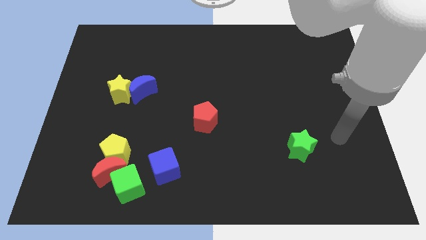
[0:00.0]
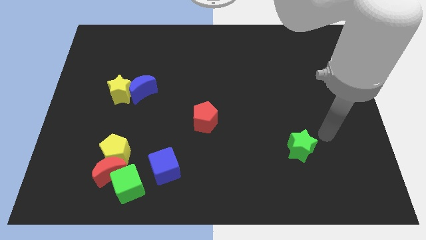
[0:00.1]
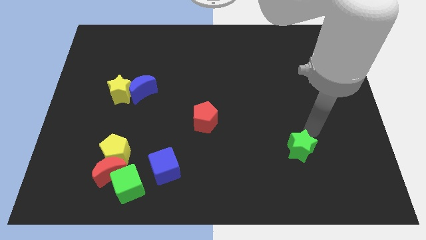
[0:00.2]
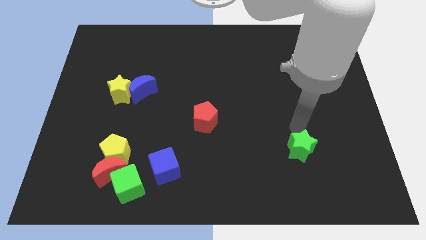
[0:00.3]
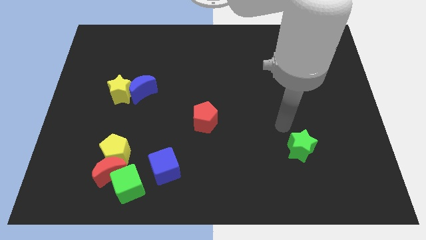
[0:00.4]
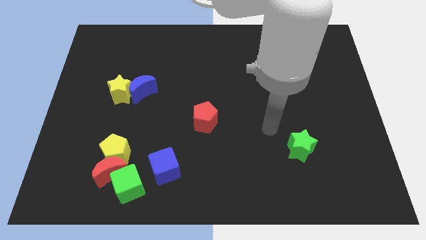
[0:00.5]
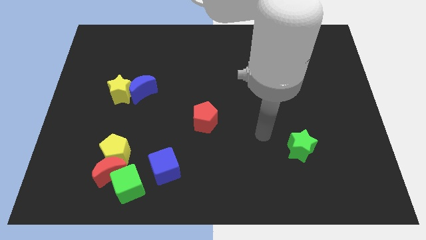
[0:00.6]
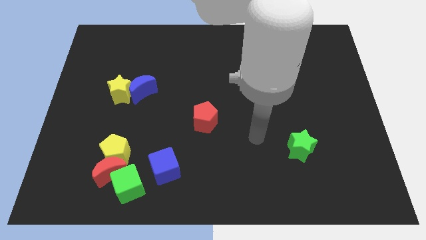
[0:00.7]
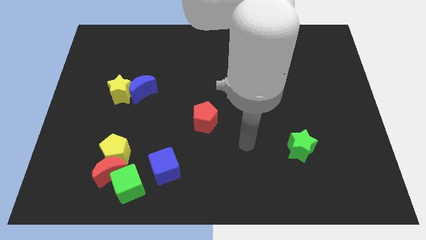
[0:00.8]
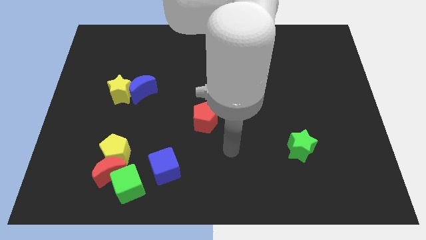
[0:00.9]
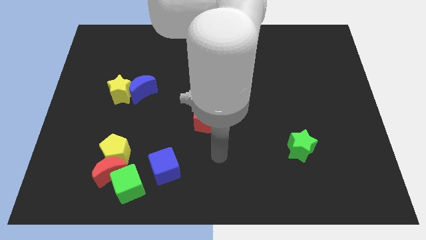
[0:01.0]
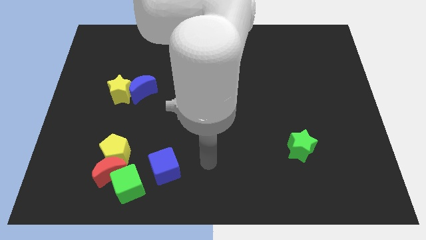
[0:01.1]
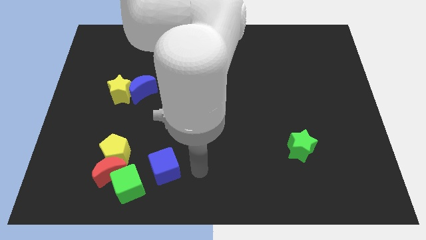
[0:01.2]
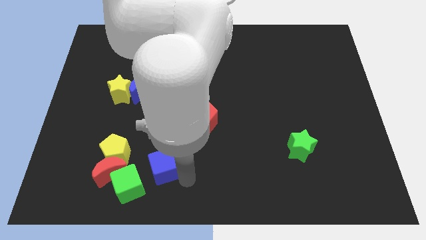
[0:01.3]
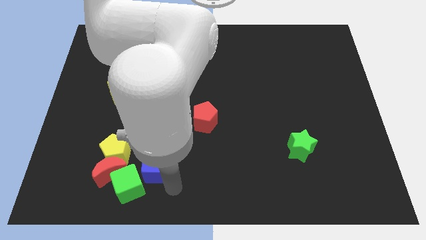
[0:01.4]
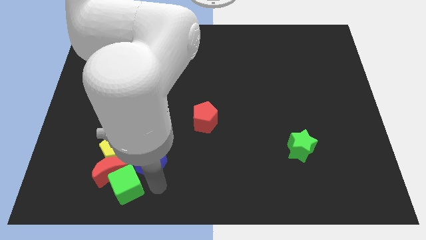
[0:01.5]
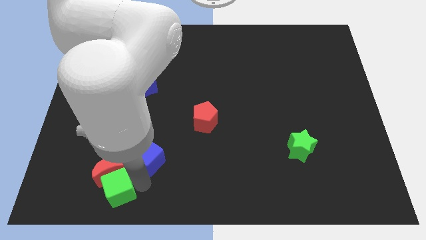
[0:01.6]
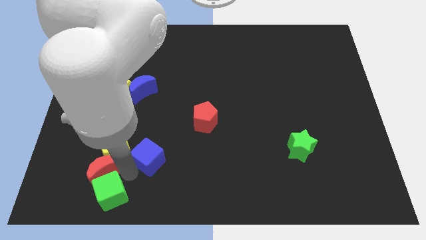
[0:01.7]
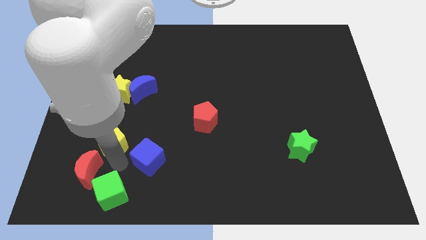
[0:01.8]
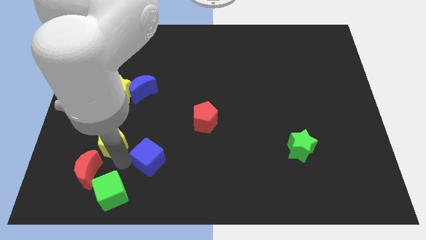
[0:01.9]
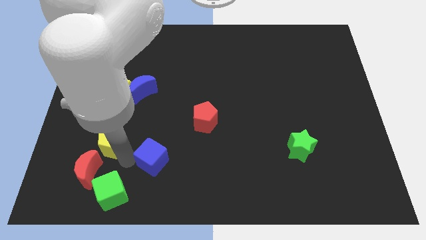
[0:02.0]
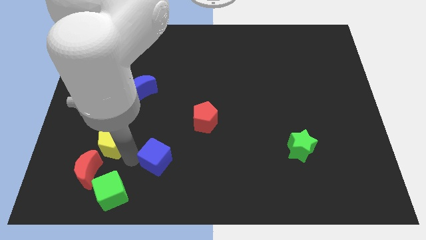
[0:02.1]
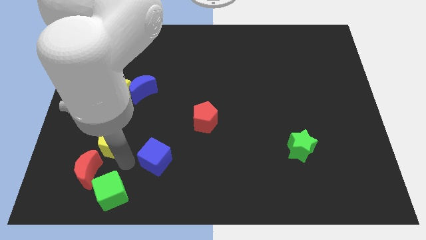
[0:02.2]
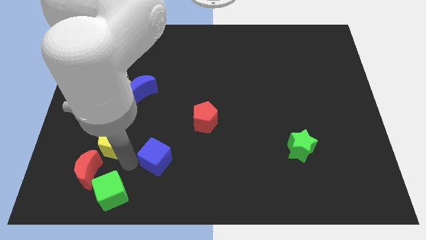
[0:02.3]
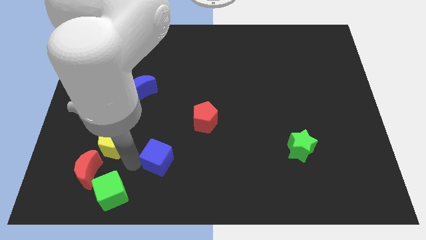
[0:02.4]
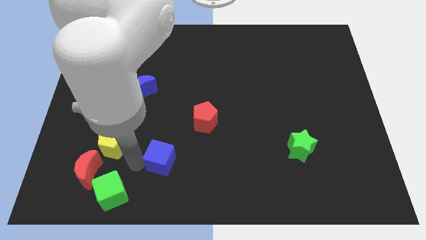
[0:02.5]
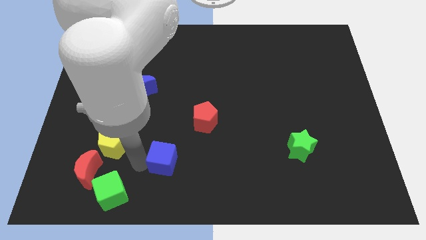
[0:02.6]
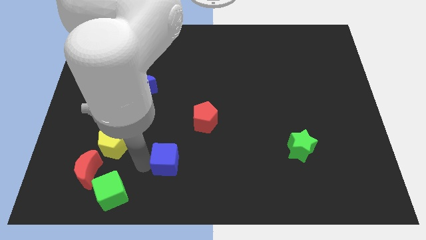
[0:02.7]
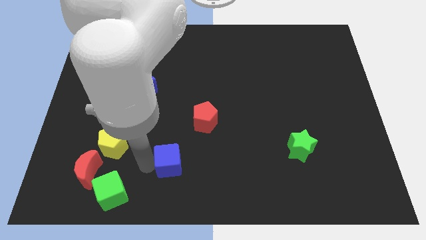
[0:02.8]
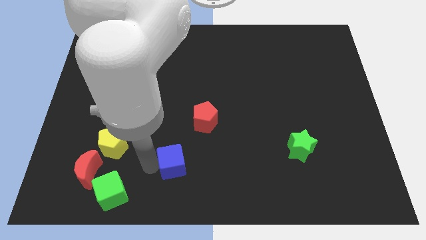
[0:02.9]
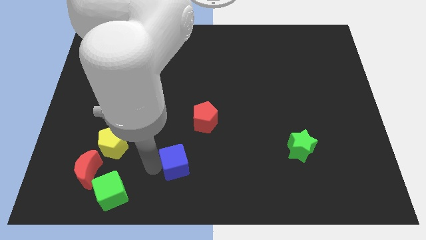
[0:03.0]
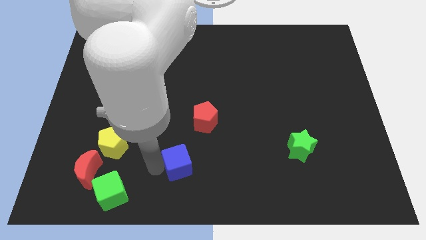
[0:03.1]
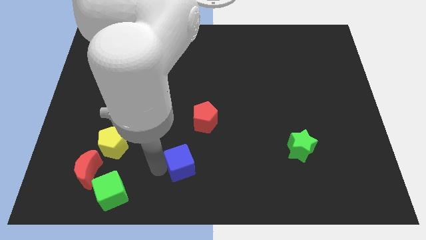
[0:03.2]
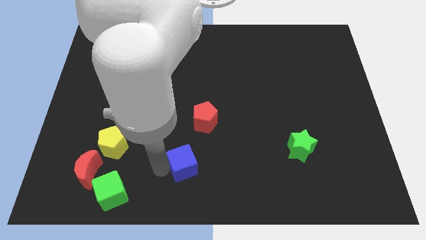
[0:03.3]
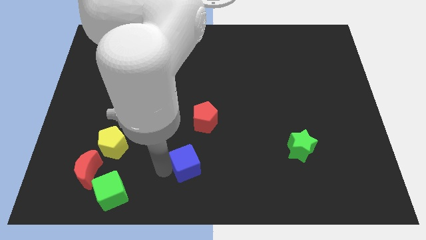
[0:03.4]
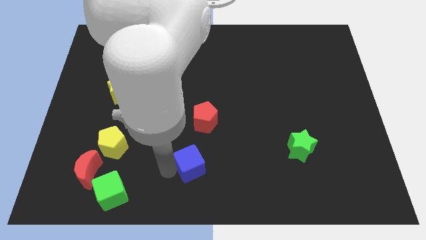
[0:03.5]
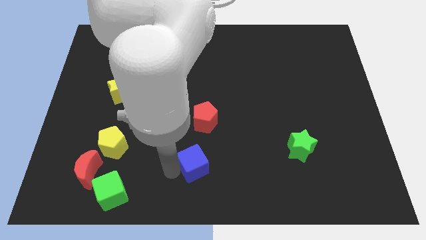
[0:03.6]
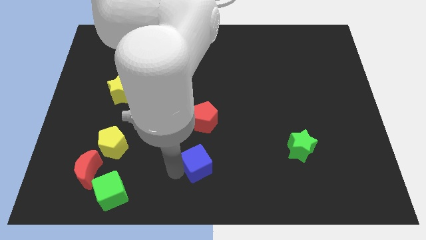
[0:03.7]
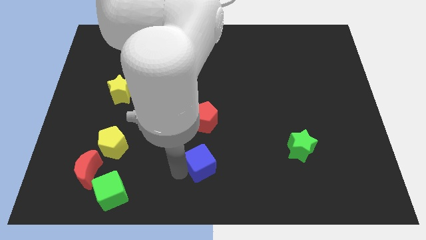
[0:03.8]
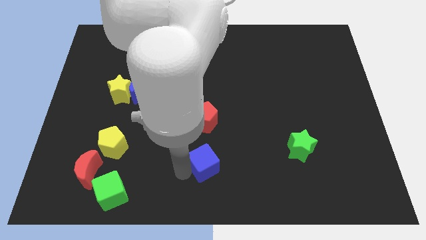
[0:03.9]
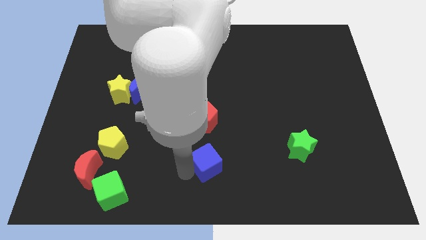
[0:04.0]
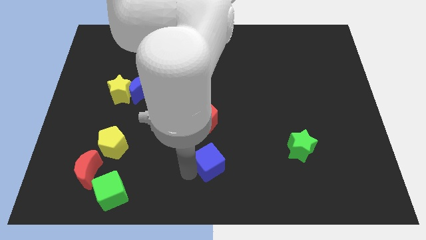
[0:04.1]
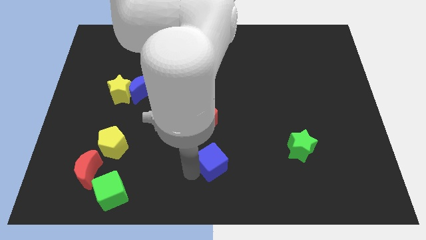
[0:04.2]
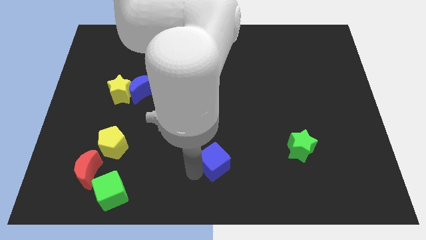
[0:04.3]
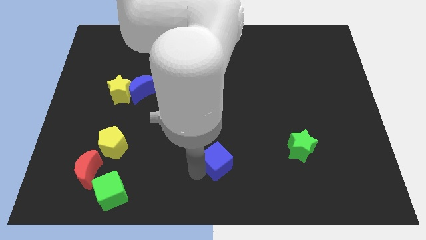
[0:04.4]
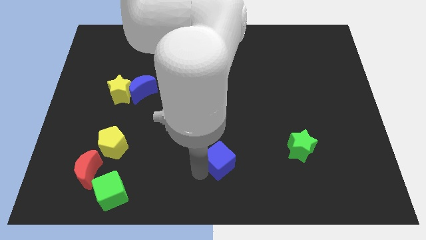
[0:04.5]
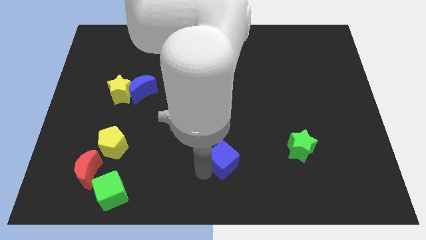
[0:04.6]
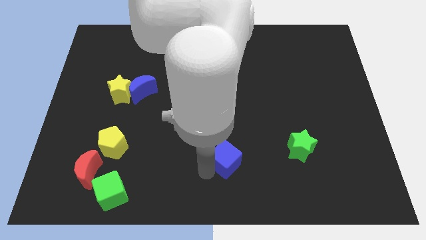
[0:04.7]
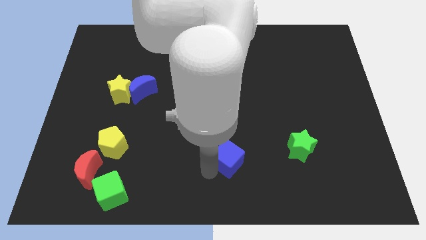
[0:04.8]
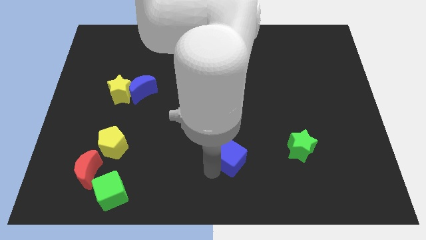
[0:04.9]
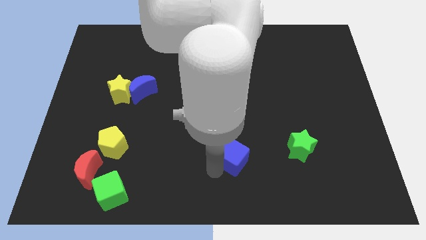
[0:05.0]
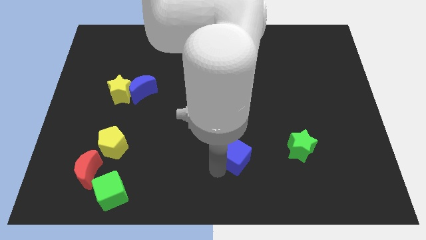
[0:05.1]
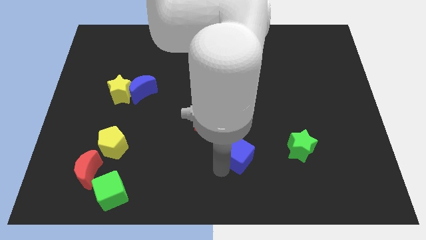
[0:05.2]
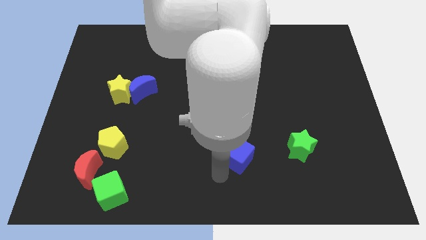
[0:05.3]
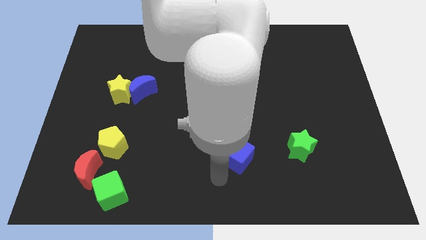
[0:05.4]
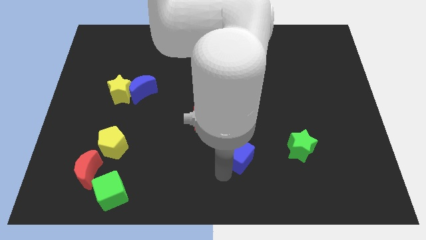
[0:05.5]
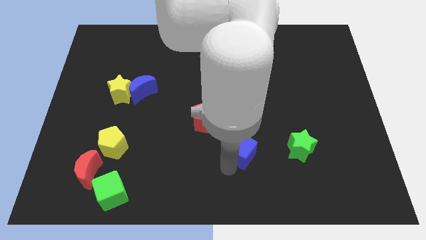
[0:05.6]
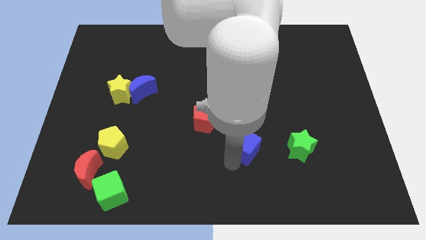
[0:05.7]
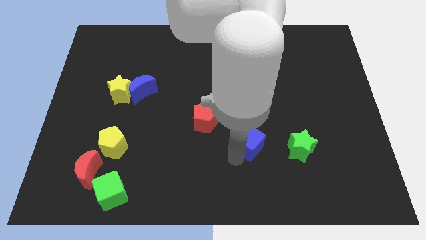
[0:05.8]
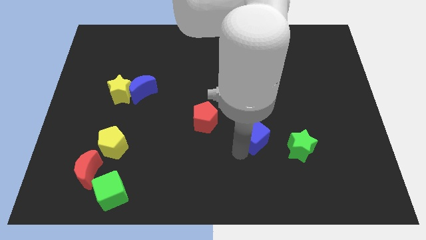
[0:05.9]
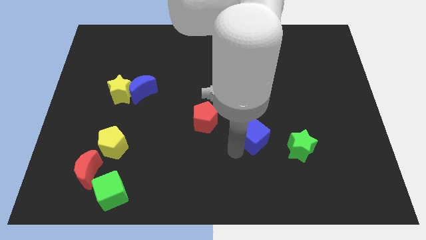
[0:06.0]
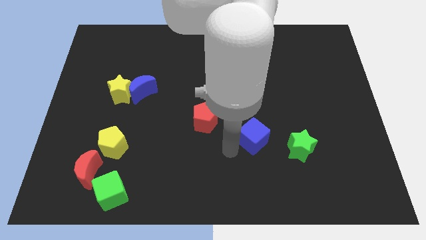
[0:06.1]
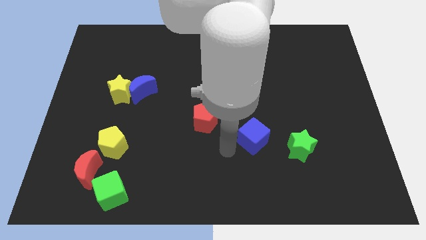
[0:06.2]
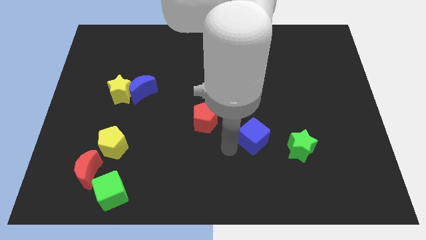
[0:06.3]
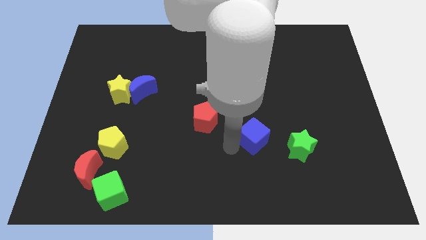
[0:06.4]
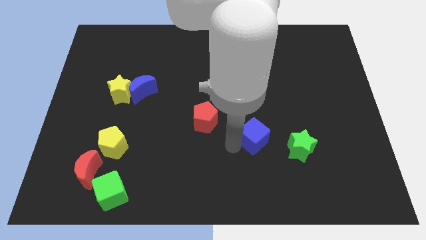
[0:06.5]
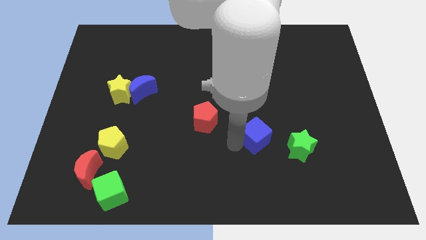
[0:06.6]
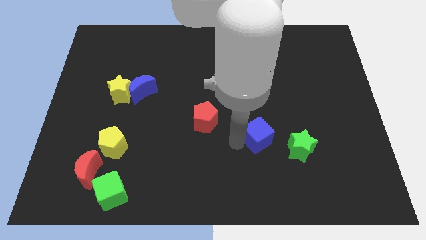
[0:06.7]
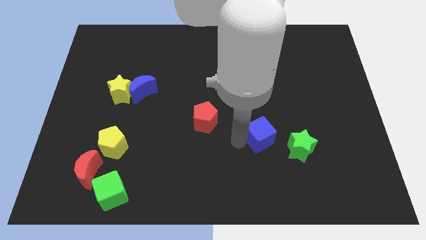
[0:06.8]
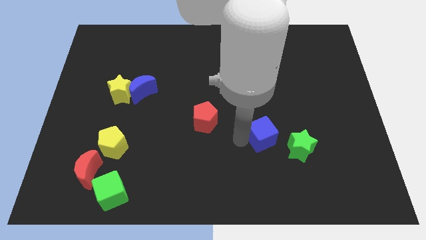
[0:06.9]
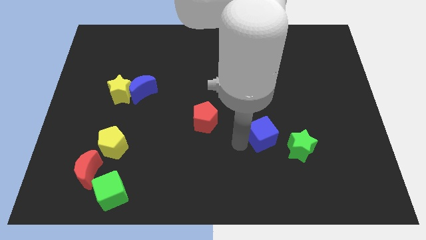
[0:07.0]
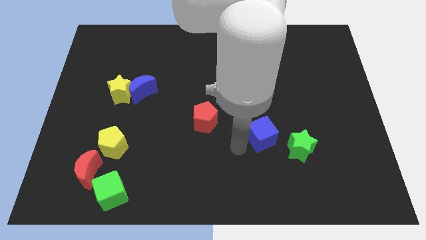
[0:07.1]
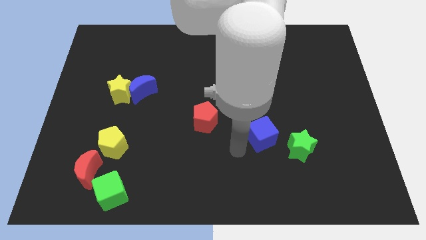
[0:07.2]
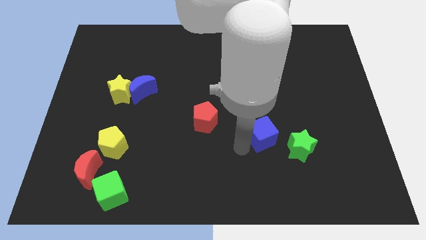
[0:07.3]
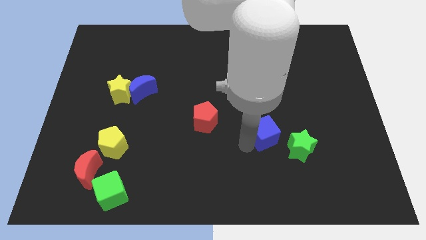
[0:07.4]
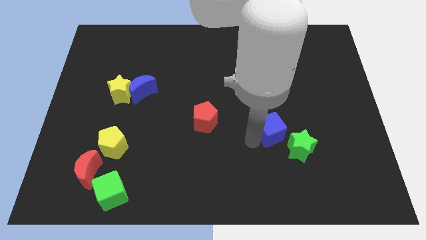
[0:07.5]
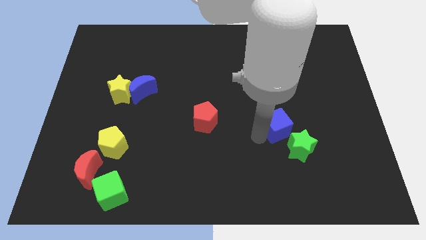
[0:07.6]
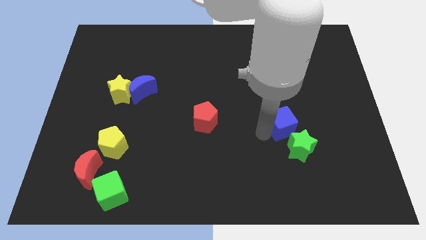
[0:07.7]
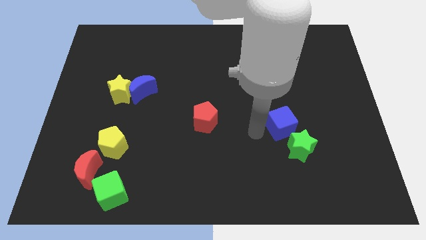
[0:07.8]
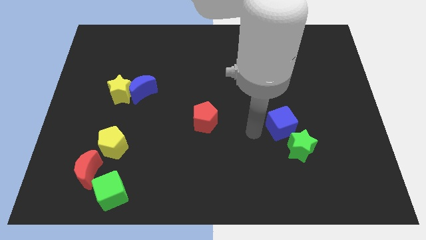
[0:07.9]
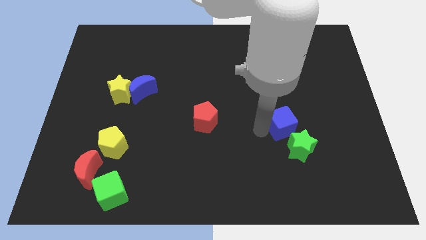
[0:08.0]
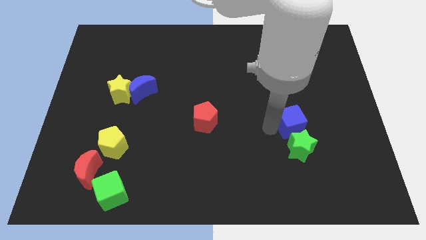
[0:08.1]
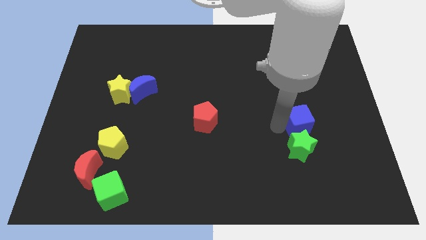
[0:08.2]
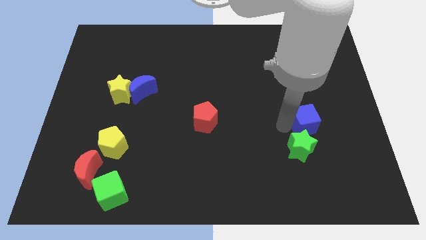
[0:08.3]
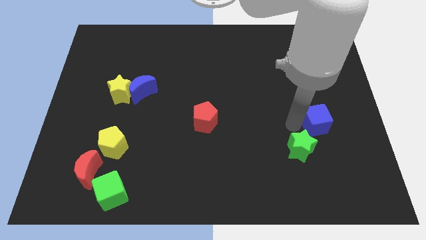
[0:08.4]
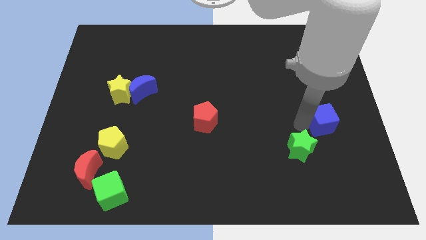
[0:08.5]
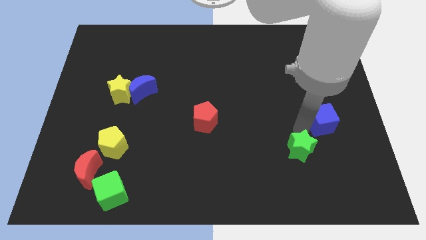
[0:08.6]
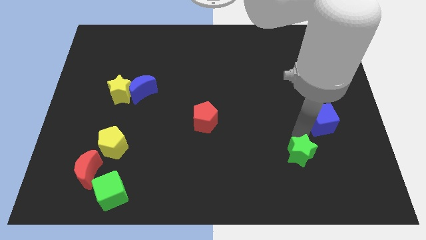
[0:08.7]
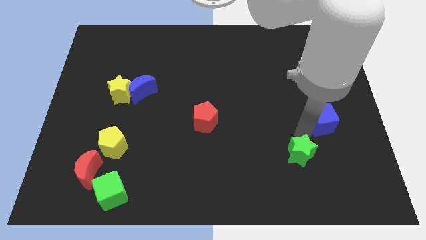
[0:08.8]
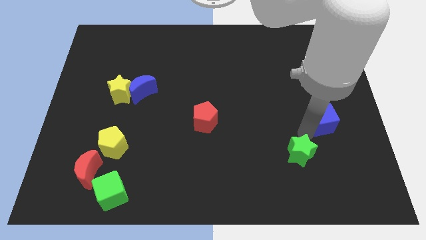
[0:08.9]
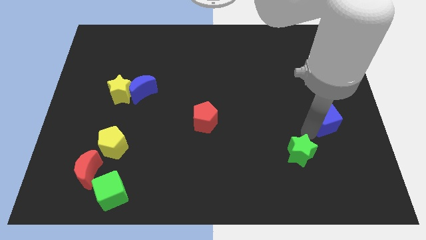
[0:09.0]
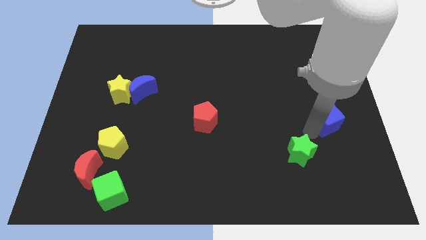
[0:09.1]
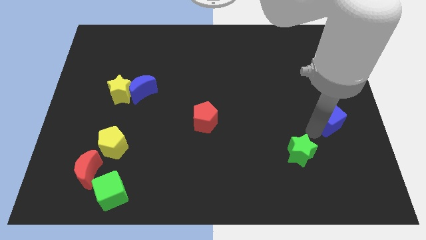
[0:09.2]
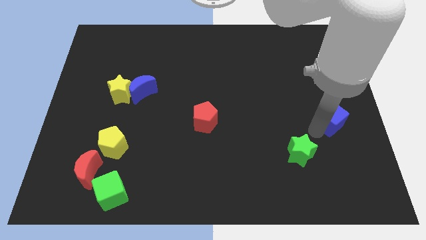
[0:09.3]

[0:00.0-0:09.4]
put the blue cube to the right side
